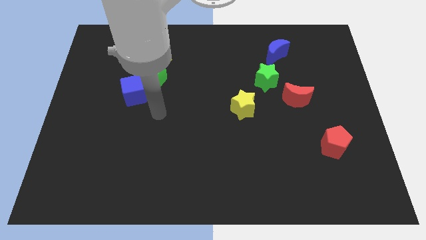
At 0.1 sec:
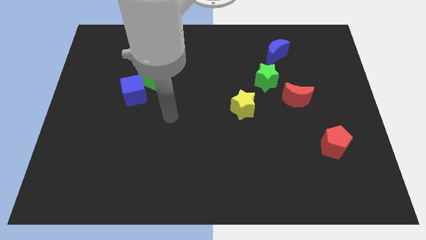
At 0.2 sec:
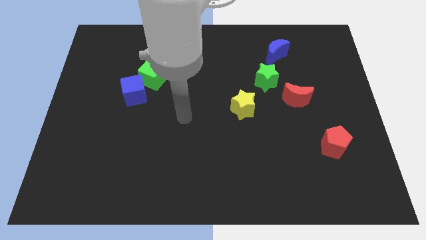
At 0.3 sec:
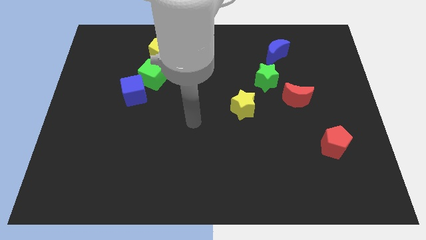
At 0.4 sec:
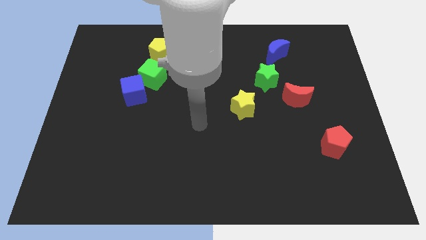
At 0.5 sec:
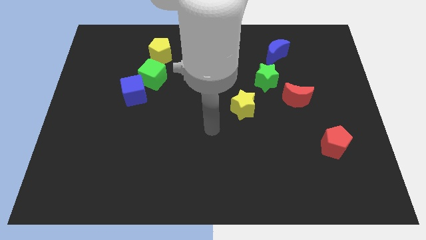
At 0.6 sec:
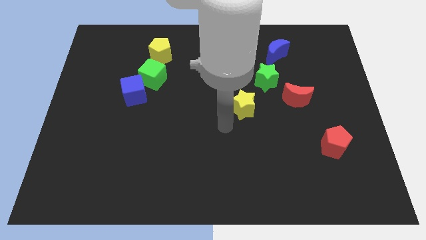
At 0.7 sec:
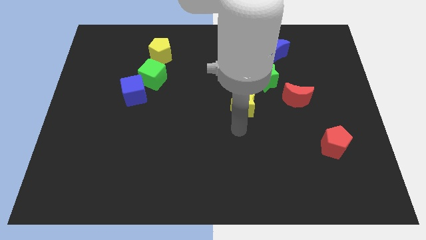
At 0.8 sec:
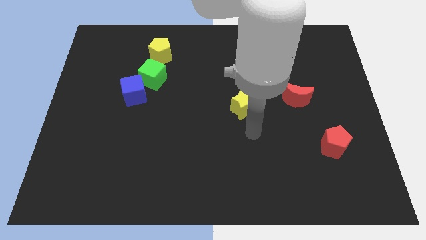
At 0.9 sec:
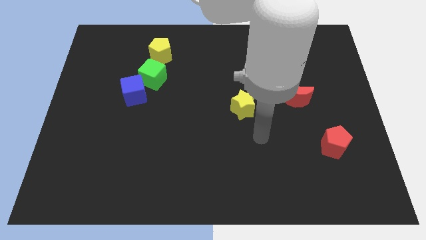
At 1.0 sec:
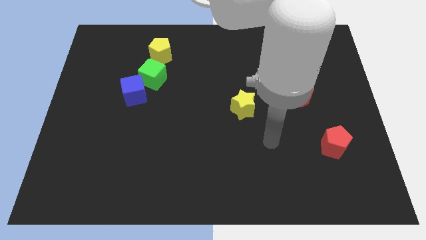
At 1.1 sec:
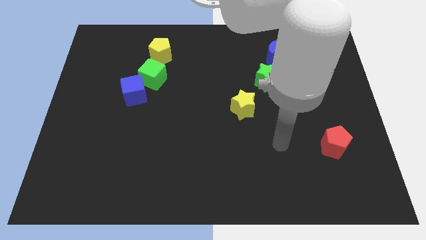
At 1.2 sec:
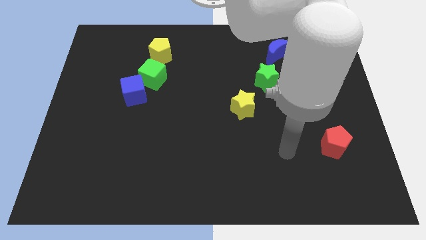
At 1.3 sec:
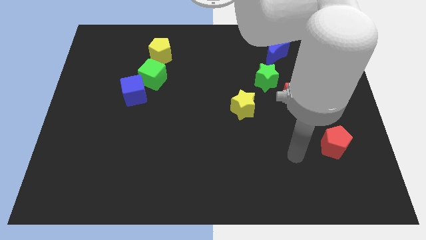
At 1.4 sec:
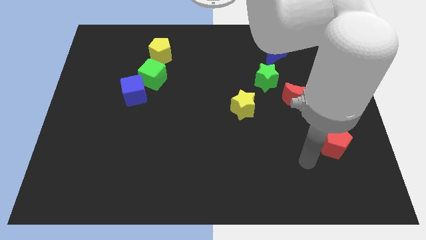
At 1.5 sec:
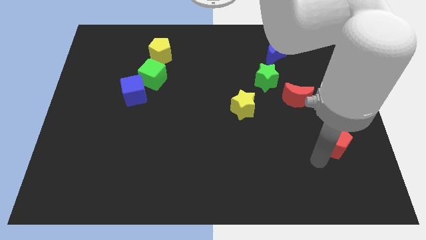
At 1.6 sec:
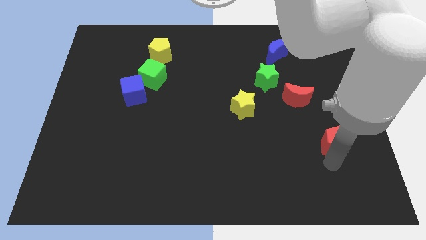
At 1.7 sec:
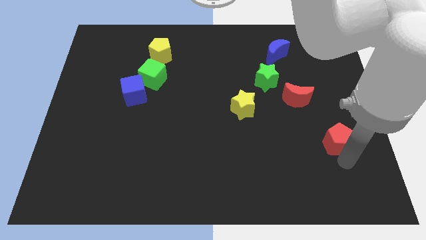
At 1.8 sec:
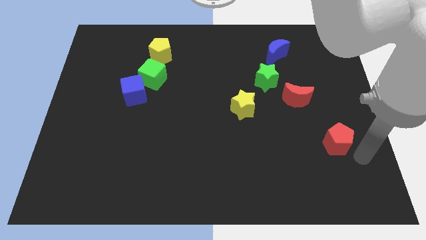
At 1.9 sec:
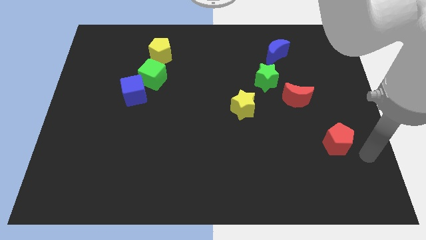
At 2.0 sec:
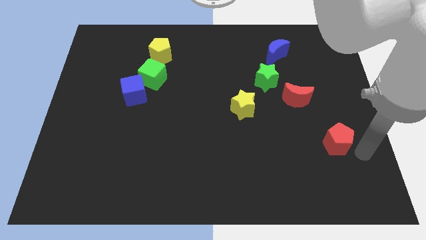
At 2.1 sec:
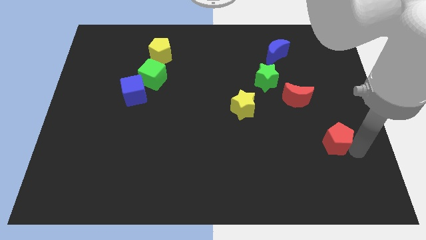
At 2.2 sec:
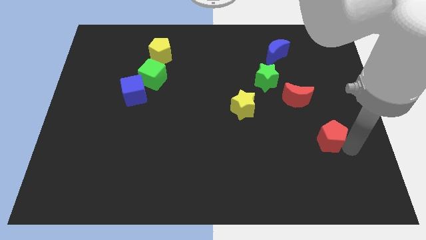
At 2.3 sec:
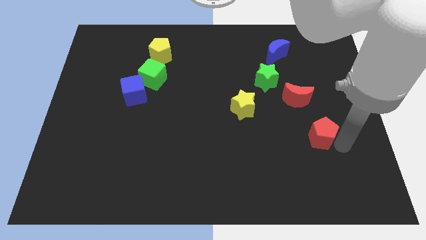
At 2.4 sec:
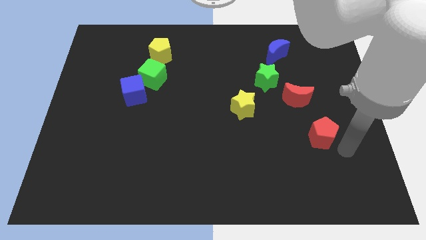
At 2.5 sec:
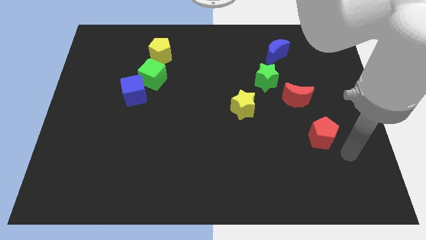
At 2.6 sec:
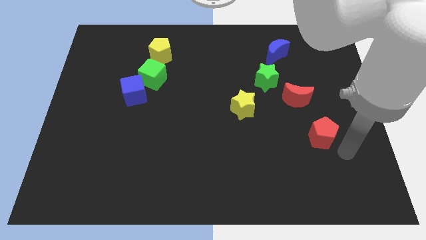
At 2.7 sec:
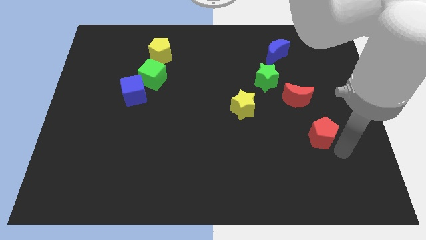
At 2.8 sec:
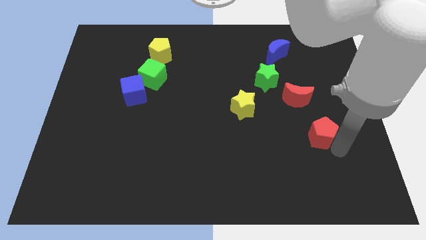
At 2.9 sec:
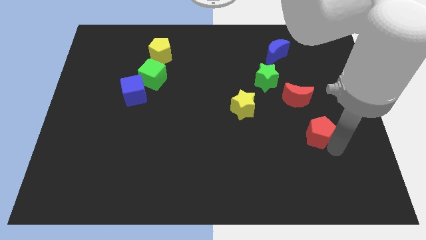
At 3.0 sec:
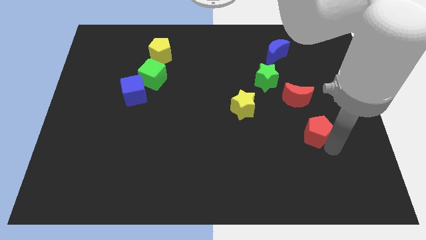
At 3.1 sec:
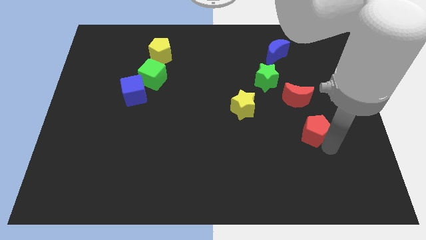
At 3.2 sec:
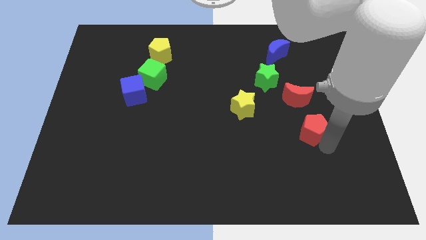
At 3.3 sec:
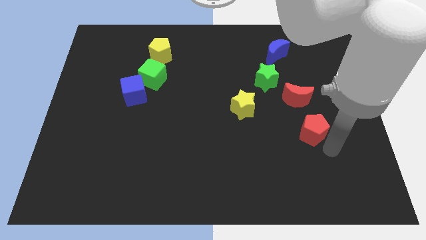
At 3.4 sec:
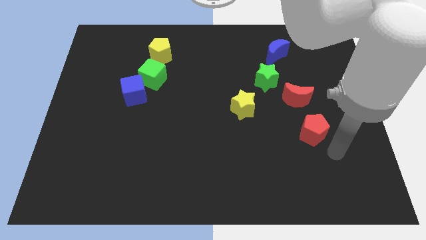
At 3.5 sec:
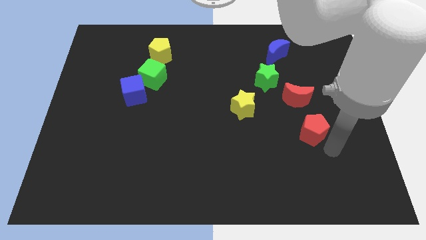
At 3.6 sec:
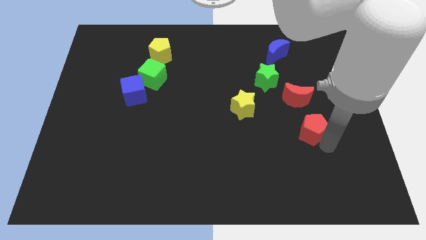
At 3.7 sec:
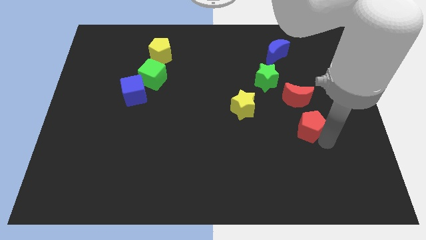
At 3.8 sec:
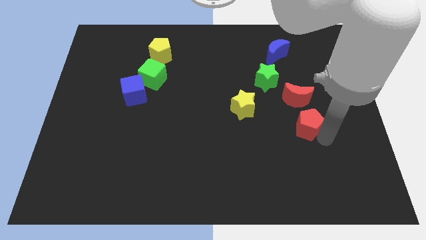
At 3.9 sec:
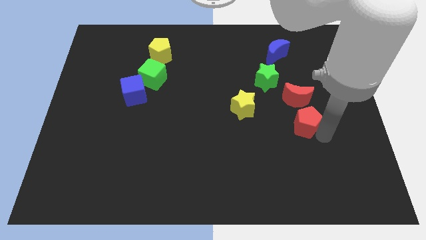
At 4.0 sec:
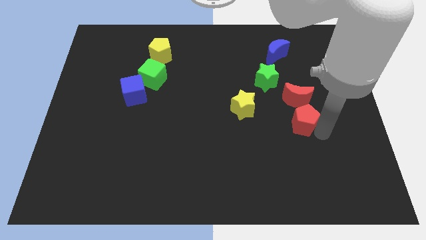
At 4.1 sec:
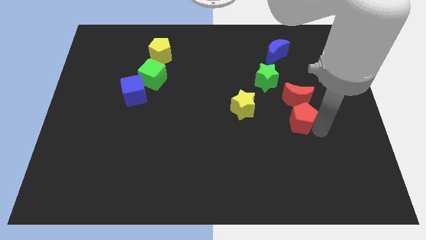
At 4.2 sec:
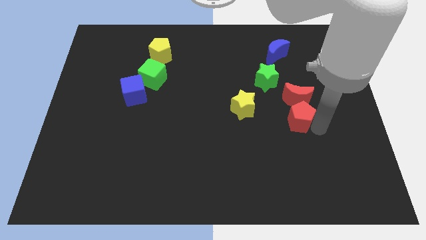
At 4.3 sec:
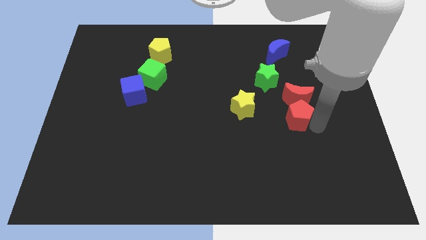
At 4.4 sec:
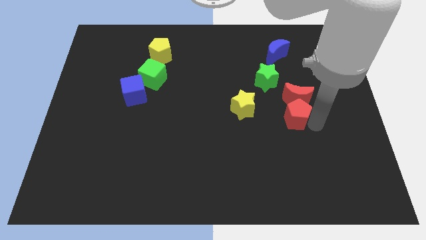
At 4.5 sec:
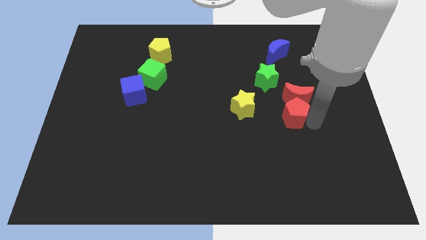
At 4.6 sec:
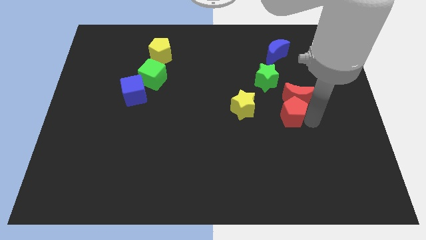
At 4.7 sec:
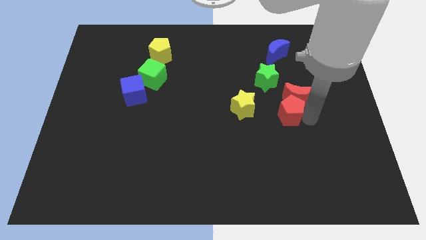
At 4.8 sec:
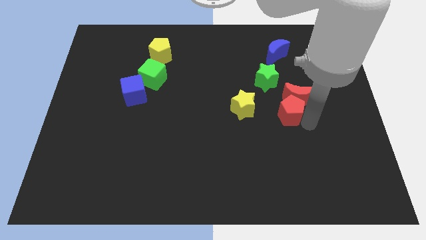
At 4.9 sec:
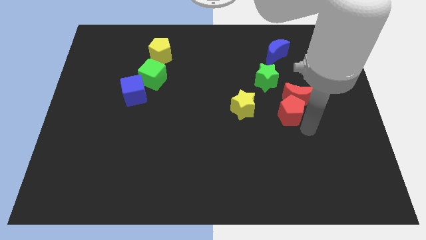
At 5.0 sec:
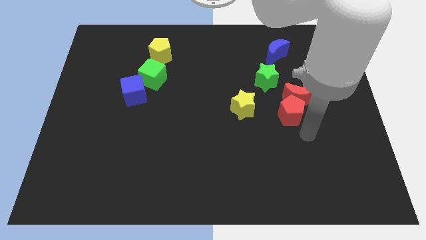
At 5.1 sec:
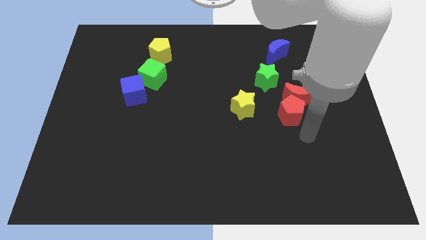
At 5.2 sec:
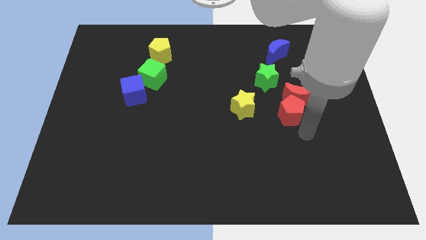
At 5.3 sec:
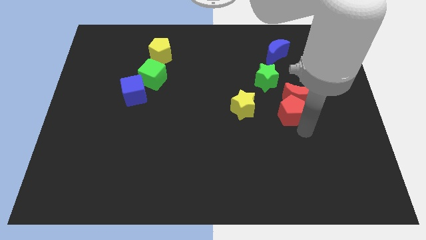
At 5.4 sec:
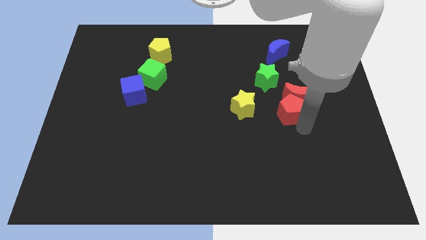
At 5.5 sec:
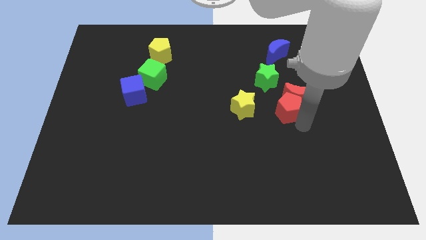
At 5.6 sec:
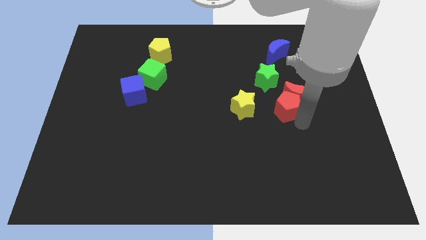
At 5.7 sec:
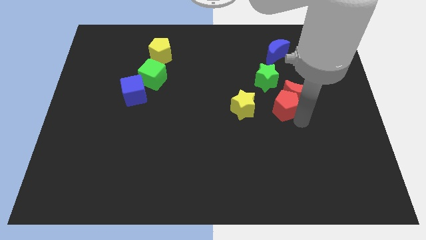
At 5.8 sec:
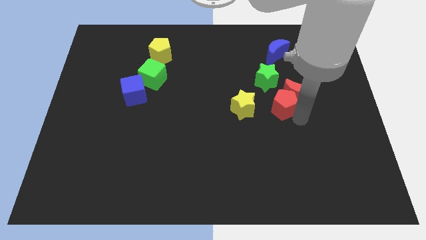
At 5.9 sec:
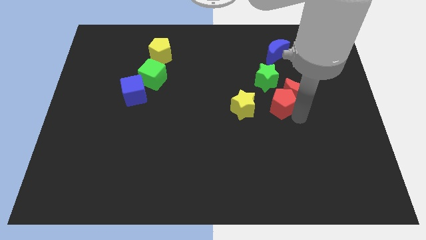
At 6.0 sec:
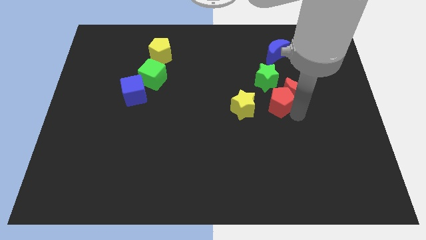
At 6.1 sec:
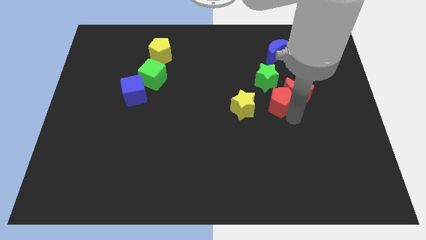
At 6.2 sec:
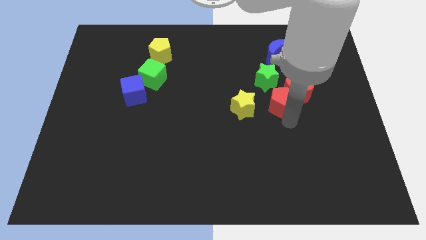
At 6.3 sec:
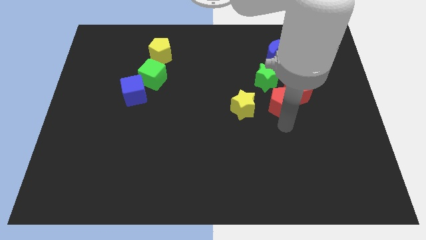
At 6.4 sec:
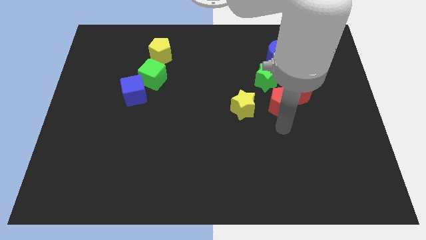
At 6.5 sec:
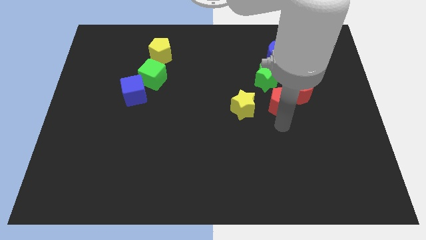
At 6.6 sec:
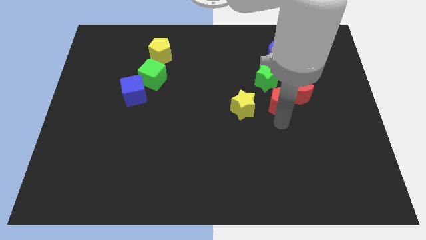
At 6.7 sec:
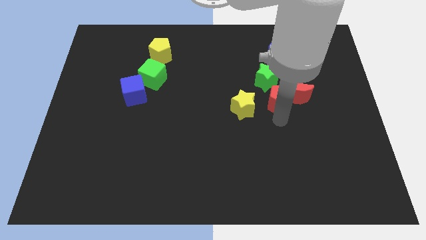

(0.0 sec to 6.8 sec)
slide the red pentagon below the blue moon

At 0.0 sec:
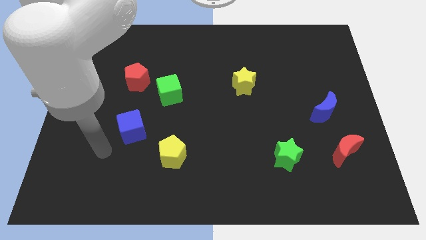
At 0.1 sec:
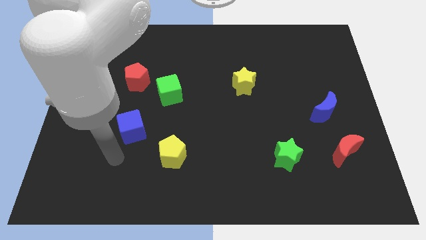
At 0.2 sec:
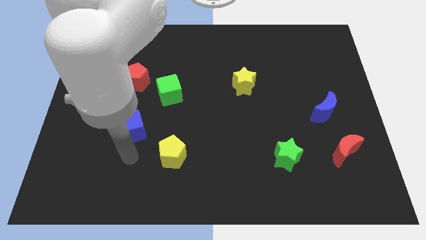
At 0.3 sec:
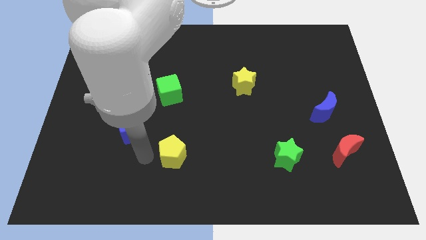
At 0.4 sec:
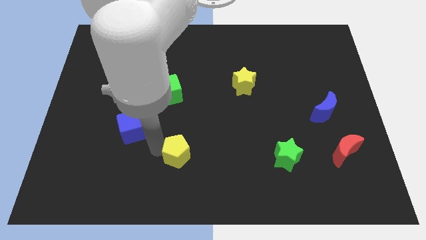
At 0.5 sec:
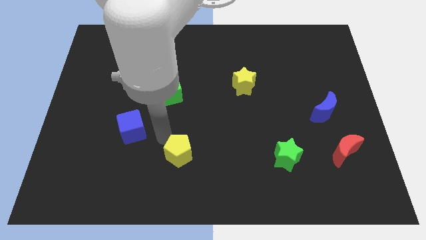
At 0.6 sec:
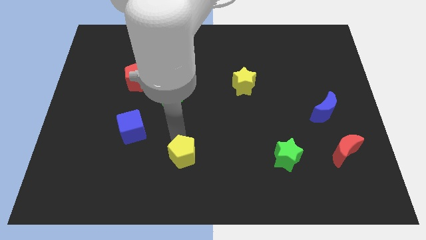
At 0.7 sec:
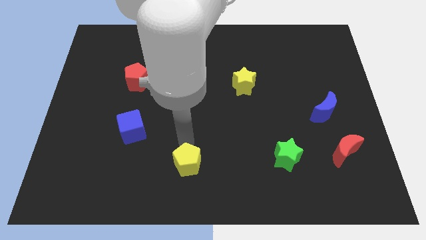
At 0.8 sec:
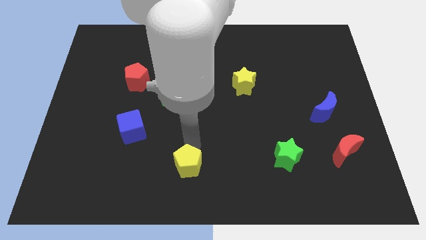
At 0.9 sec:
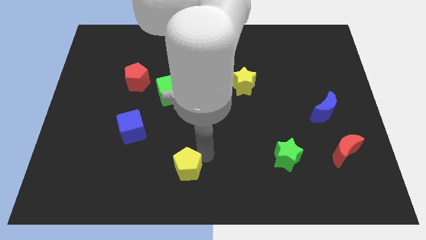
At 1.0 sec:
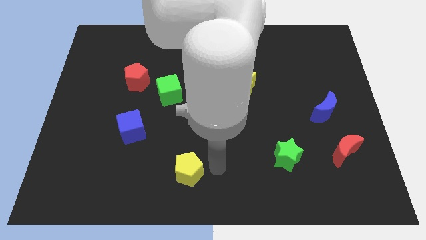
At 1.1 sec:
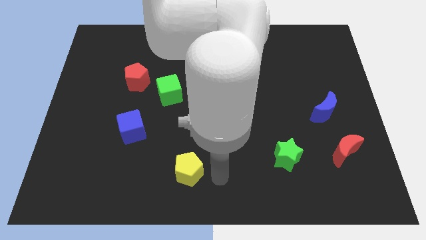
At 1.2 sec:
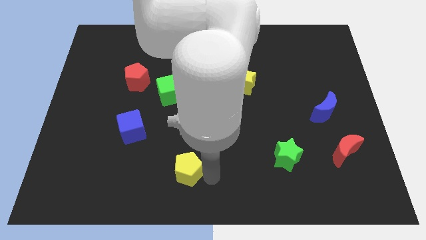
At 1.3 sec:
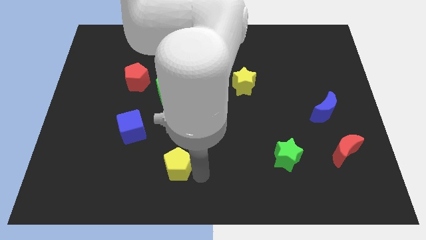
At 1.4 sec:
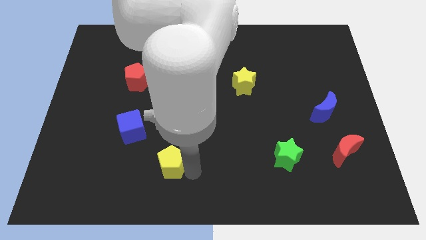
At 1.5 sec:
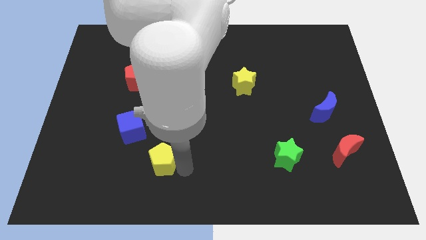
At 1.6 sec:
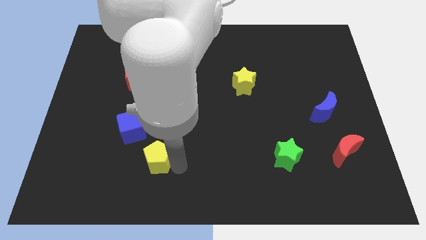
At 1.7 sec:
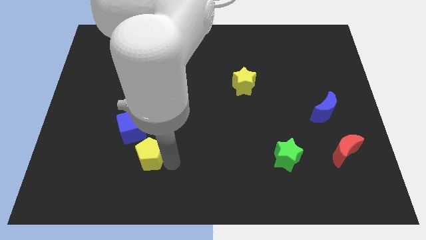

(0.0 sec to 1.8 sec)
slide the yellow pentagon to the bottom side of the blue cube
